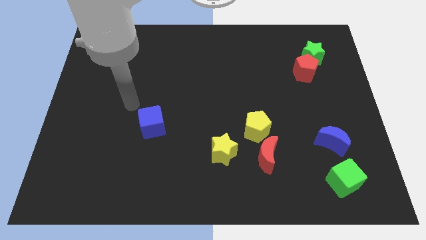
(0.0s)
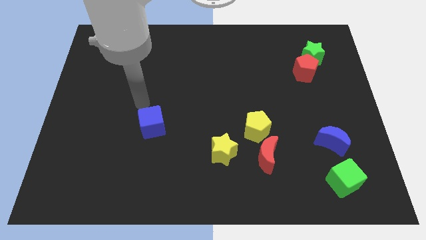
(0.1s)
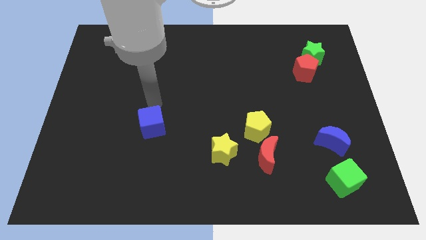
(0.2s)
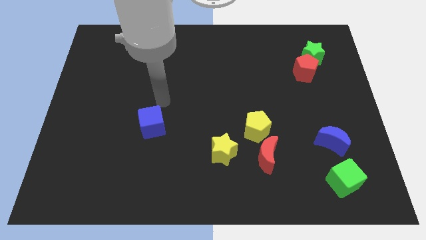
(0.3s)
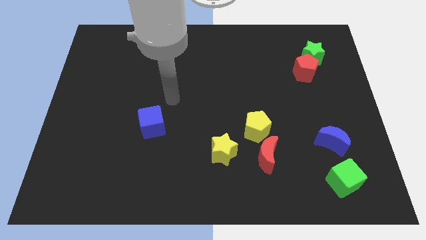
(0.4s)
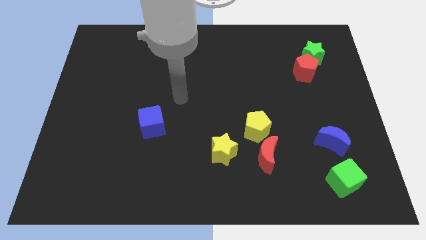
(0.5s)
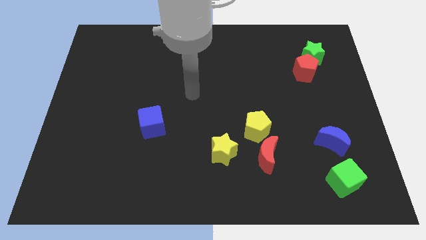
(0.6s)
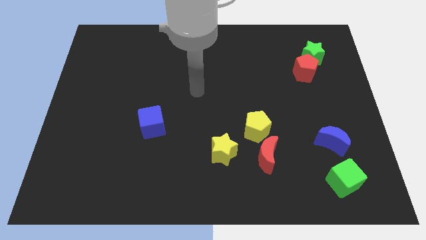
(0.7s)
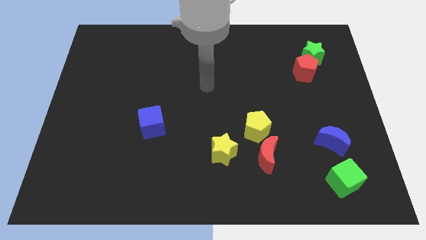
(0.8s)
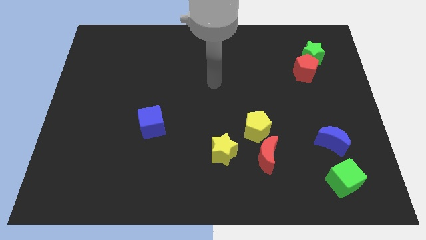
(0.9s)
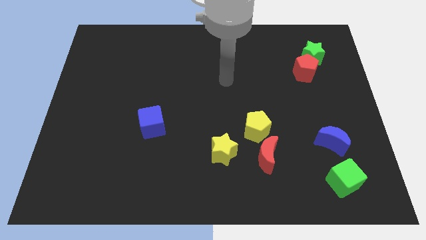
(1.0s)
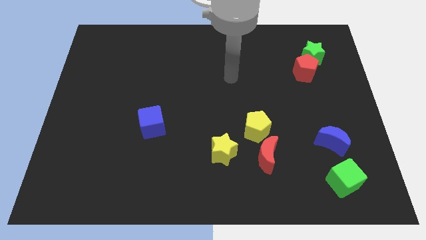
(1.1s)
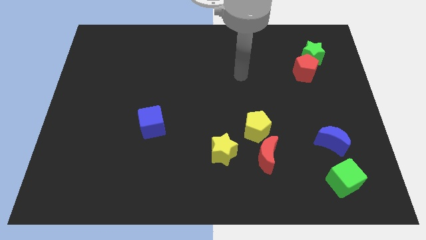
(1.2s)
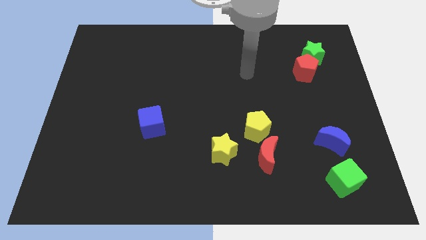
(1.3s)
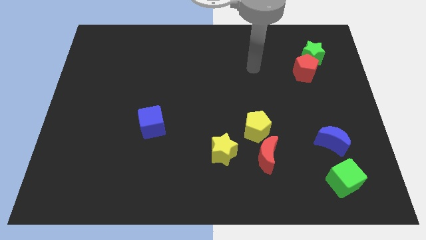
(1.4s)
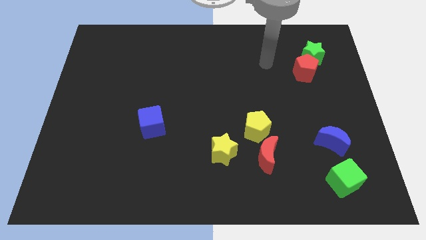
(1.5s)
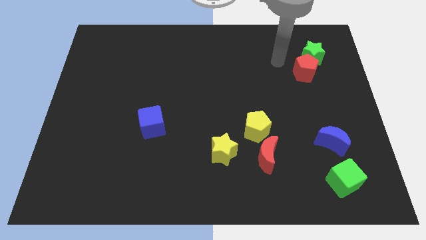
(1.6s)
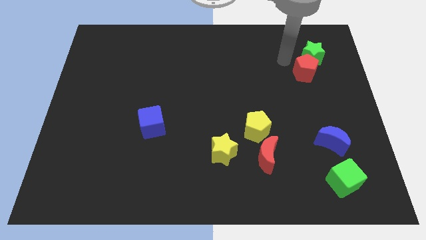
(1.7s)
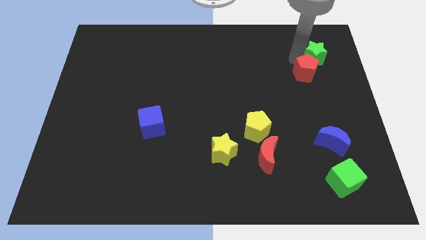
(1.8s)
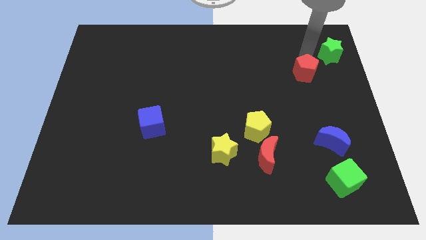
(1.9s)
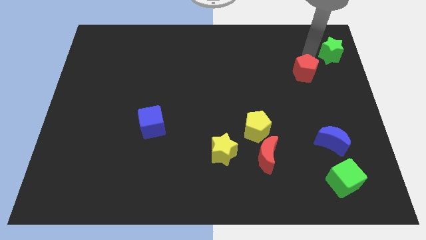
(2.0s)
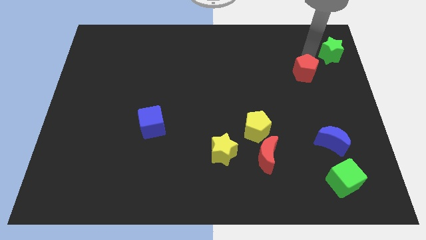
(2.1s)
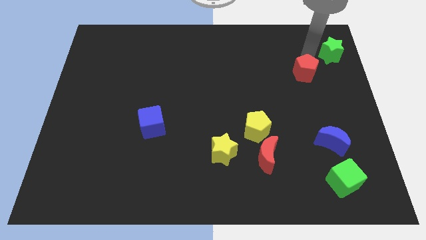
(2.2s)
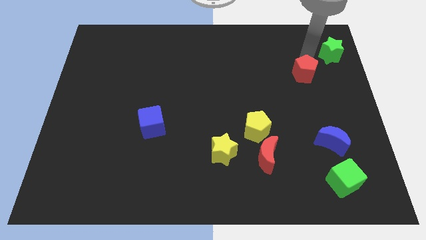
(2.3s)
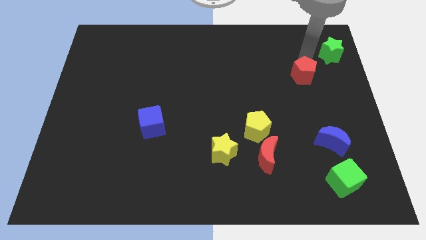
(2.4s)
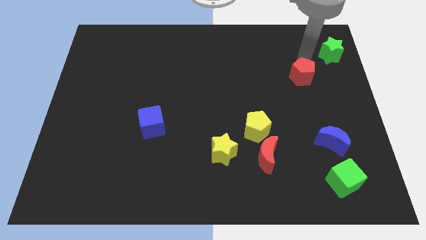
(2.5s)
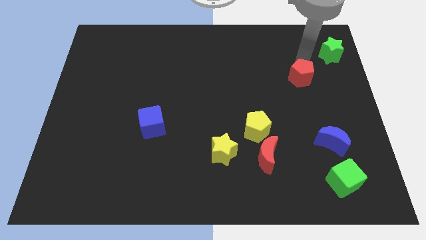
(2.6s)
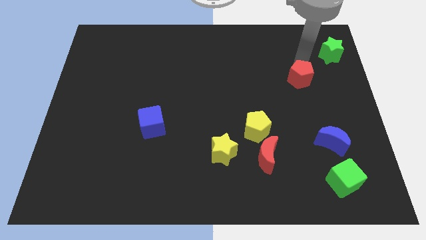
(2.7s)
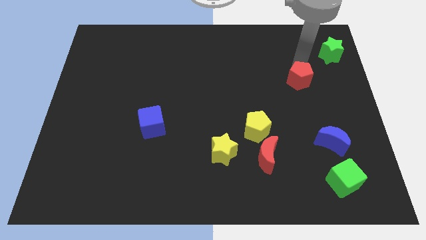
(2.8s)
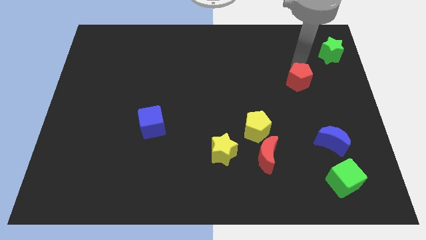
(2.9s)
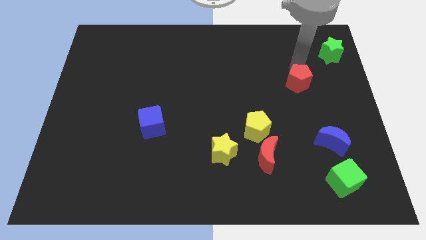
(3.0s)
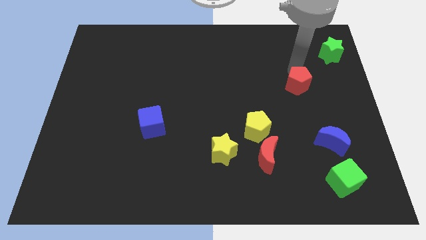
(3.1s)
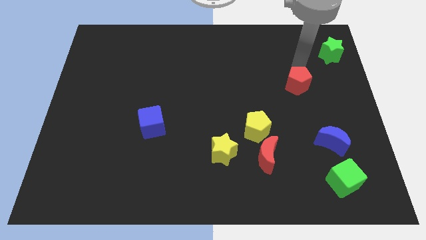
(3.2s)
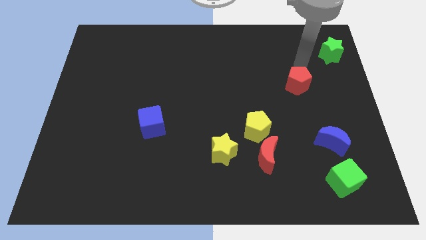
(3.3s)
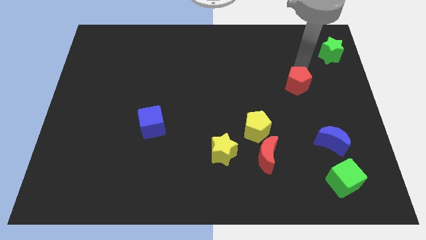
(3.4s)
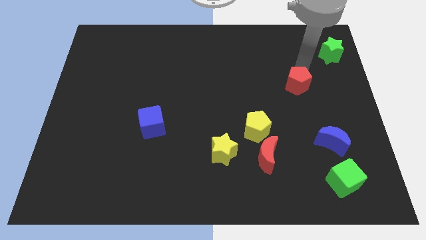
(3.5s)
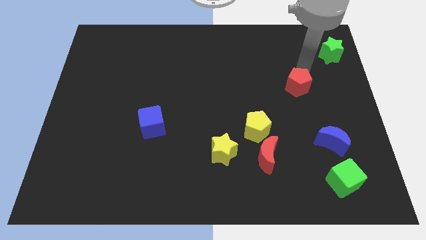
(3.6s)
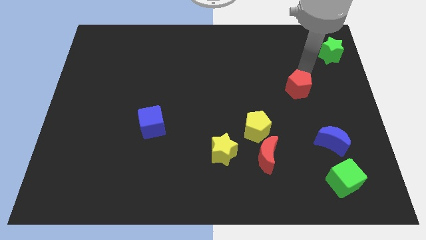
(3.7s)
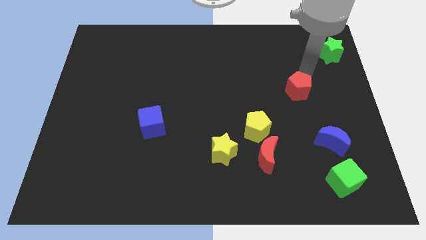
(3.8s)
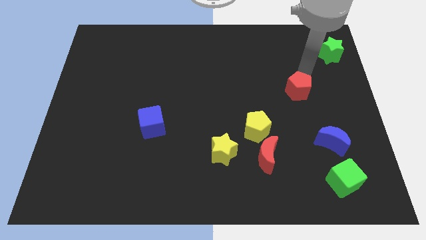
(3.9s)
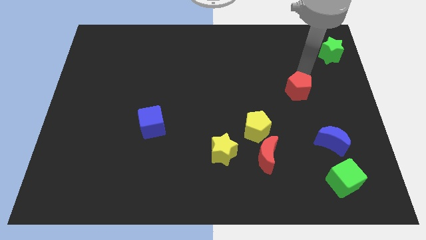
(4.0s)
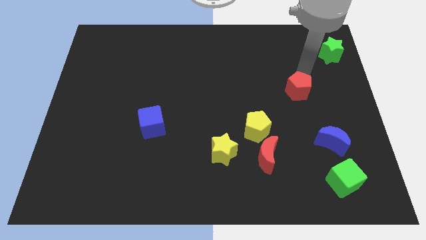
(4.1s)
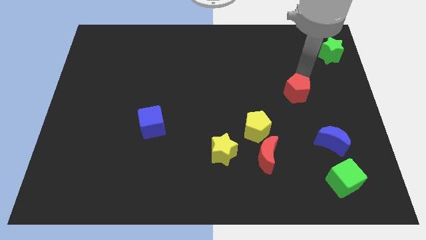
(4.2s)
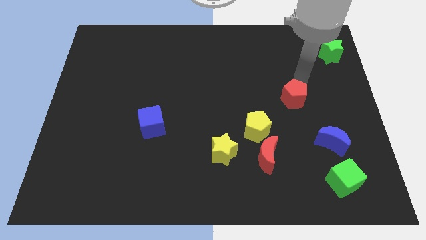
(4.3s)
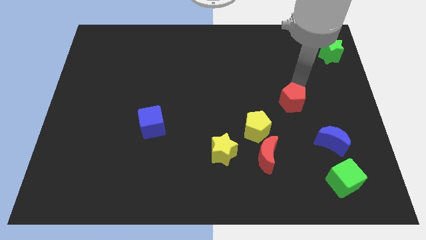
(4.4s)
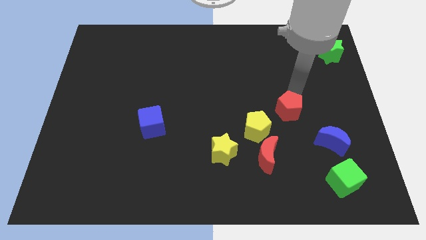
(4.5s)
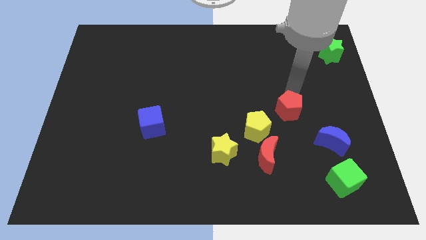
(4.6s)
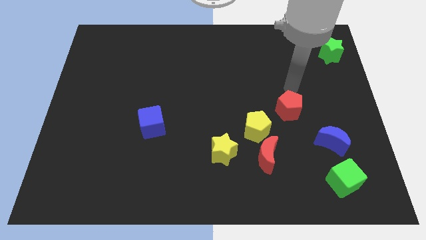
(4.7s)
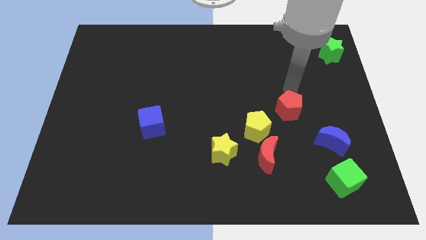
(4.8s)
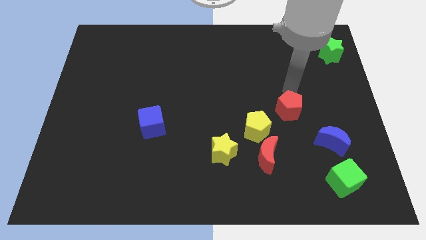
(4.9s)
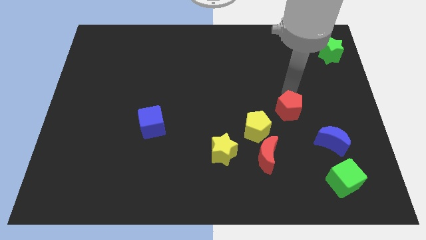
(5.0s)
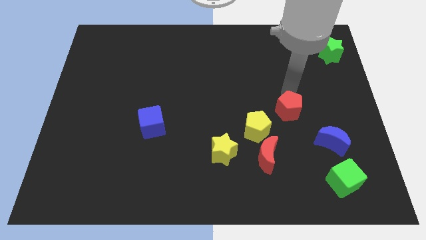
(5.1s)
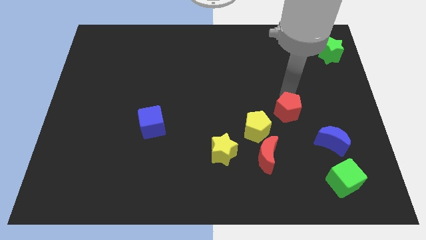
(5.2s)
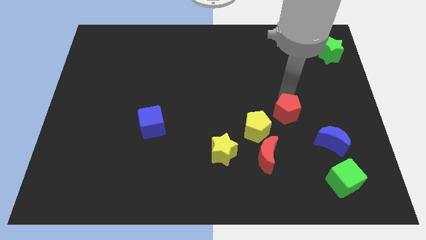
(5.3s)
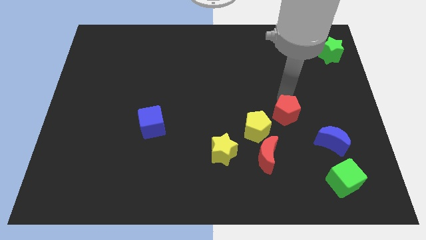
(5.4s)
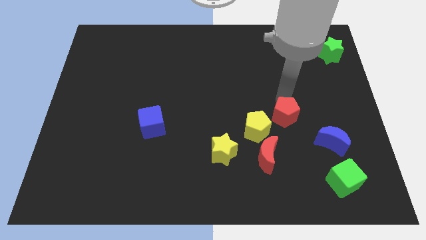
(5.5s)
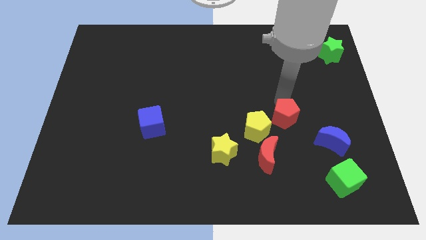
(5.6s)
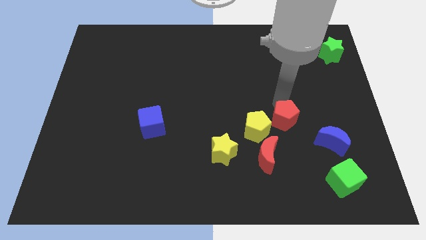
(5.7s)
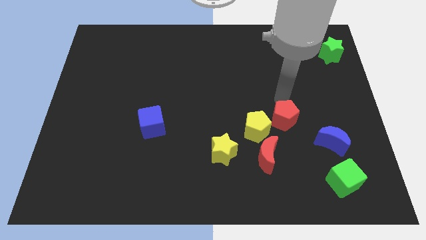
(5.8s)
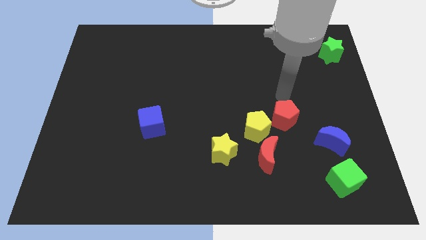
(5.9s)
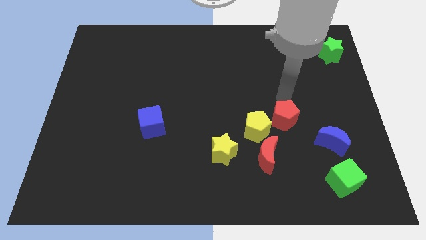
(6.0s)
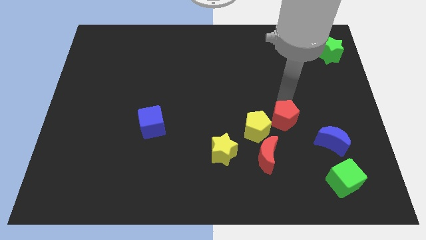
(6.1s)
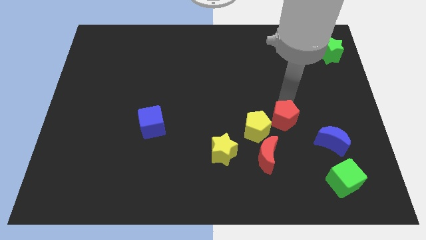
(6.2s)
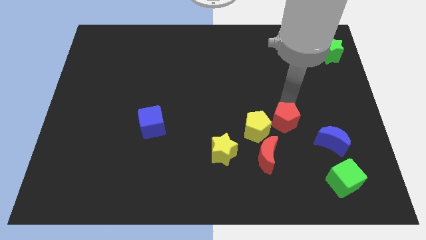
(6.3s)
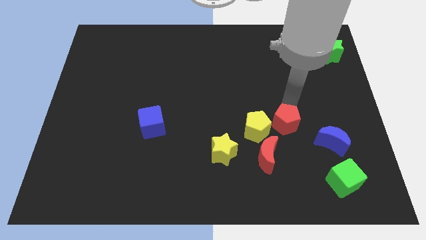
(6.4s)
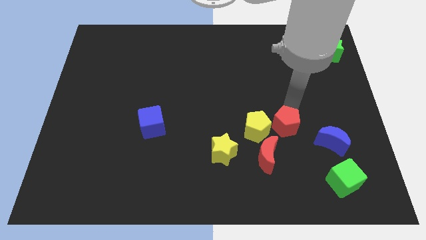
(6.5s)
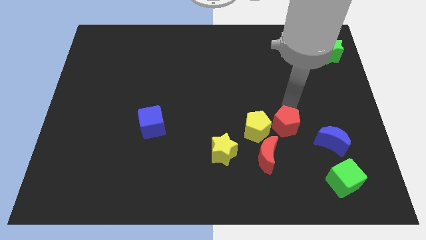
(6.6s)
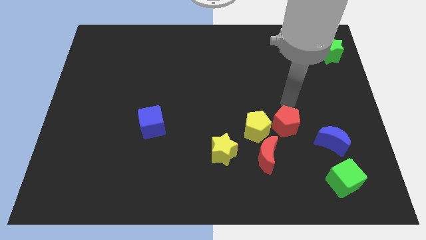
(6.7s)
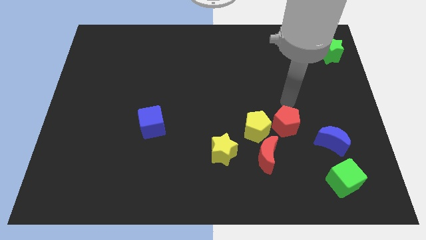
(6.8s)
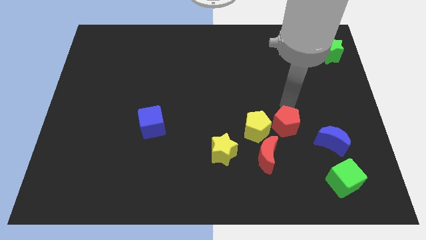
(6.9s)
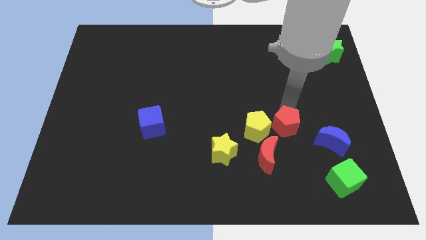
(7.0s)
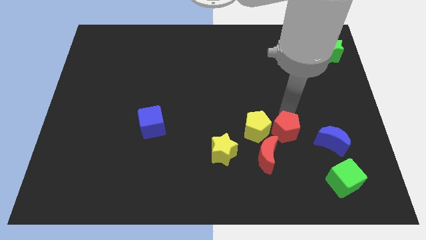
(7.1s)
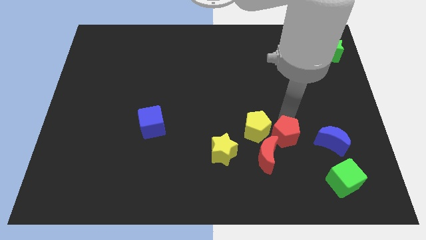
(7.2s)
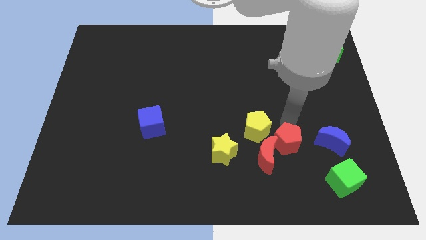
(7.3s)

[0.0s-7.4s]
push the red pentagon close to the red moon

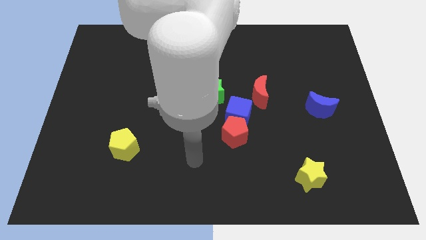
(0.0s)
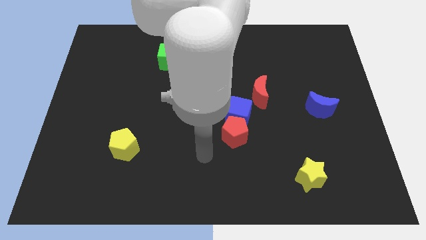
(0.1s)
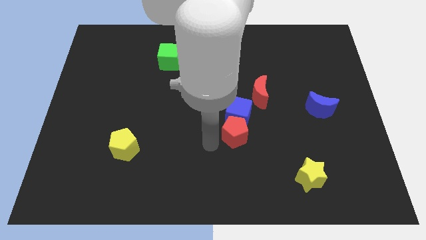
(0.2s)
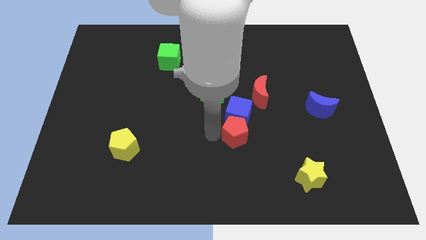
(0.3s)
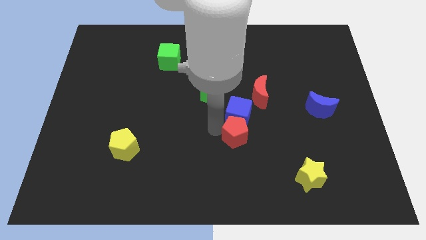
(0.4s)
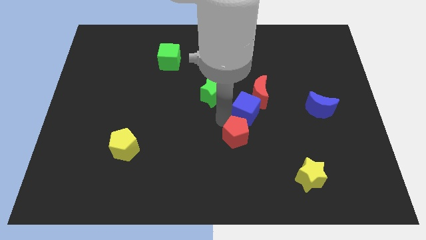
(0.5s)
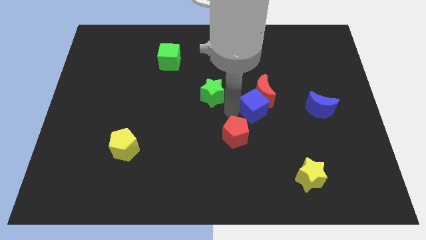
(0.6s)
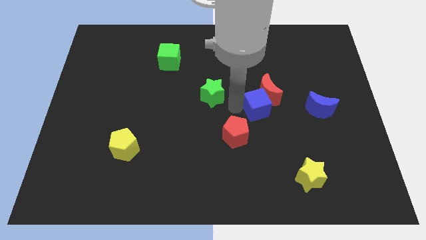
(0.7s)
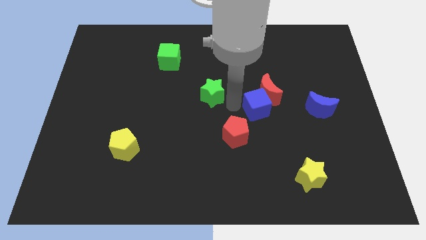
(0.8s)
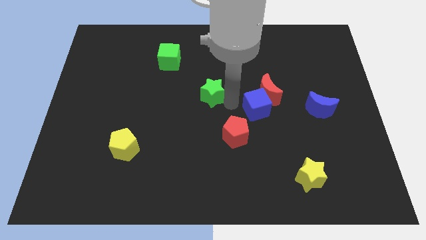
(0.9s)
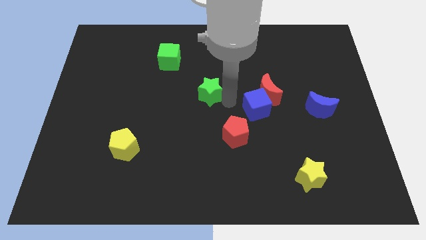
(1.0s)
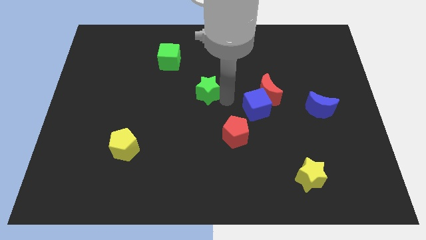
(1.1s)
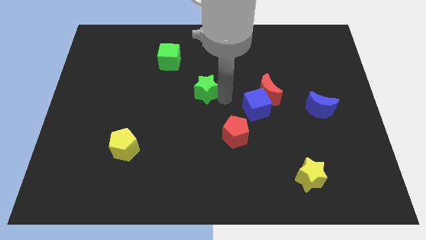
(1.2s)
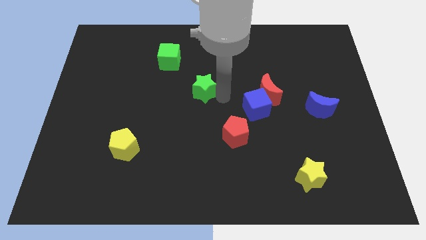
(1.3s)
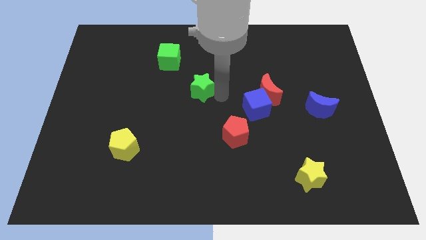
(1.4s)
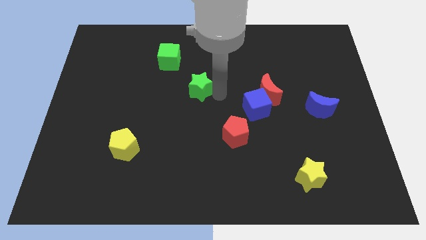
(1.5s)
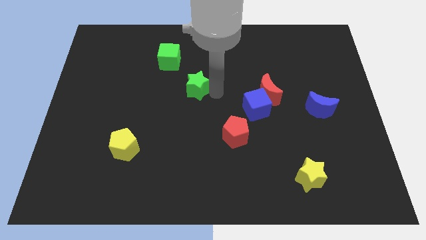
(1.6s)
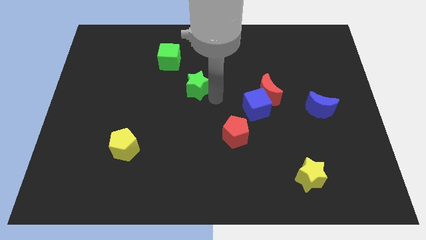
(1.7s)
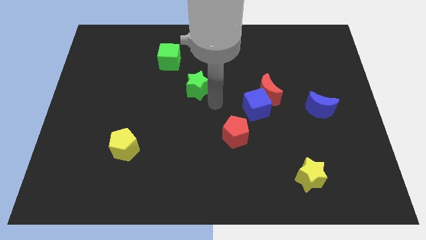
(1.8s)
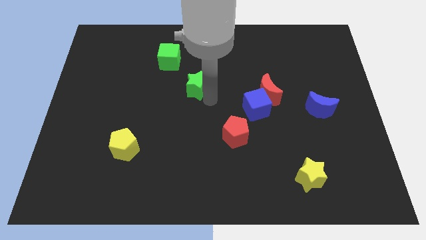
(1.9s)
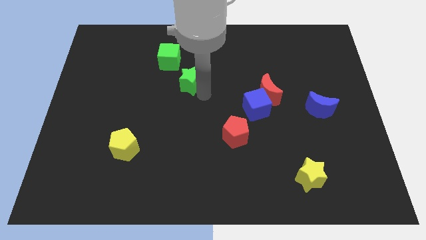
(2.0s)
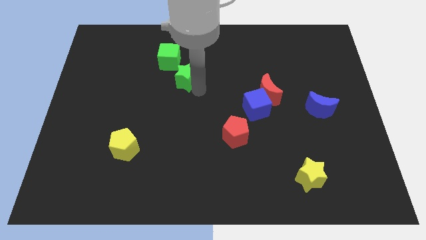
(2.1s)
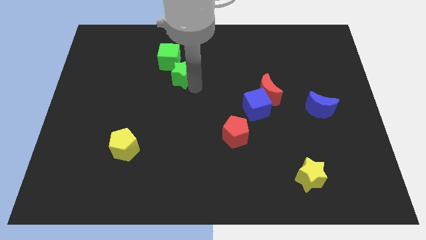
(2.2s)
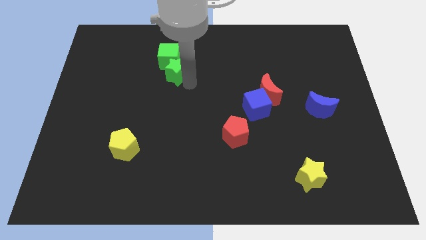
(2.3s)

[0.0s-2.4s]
move the green star close to the green cube
